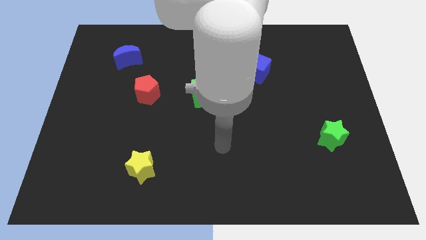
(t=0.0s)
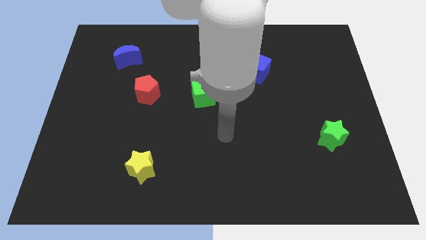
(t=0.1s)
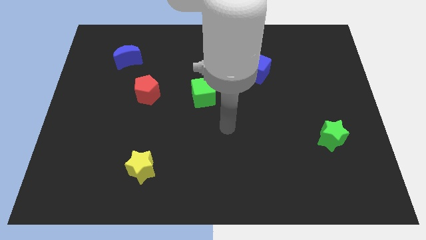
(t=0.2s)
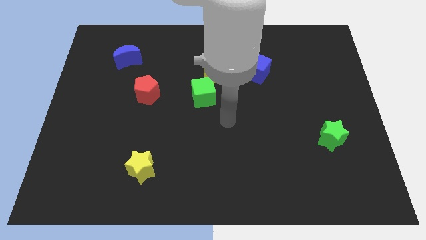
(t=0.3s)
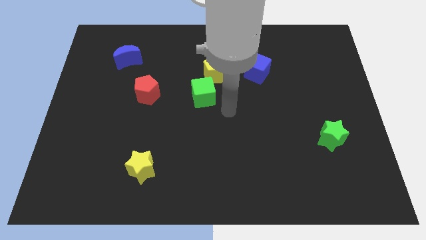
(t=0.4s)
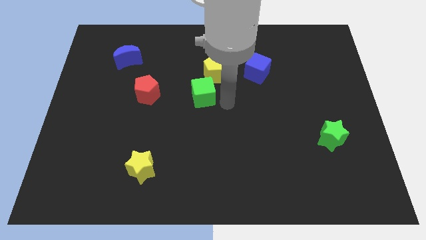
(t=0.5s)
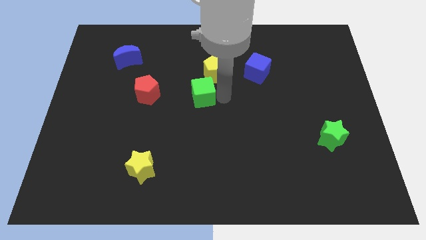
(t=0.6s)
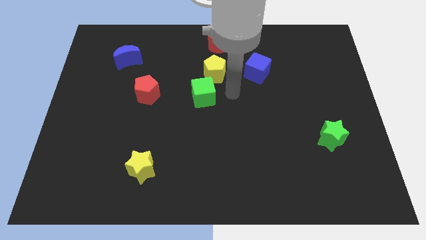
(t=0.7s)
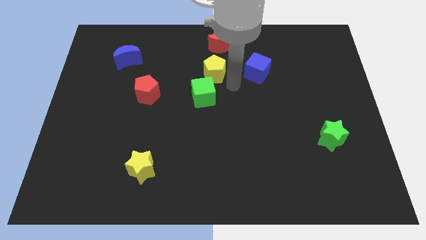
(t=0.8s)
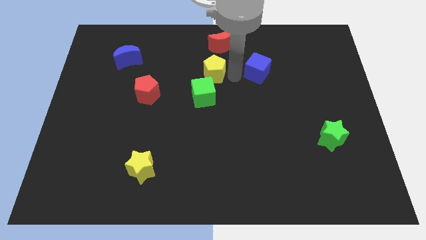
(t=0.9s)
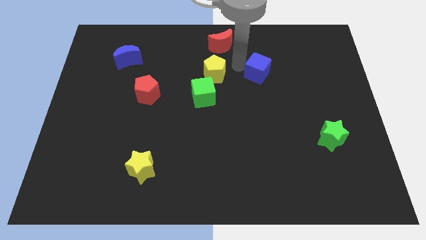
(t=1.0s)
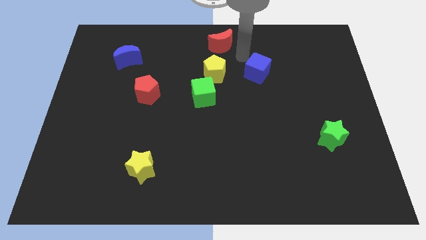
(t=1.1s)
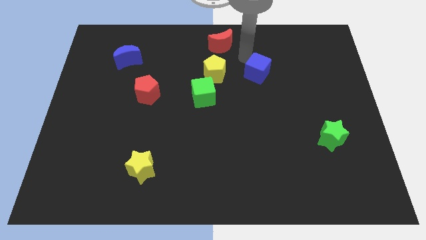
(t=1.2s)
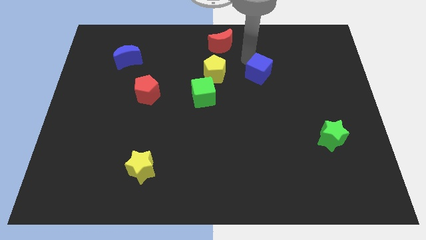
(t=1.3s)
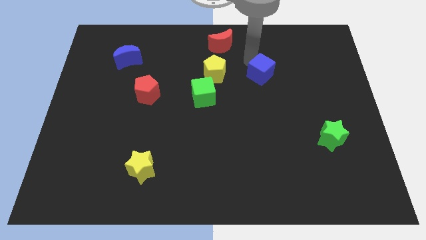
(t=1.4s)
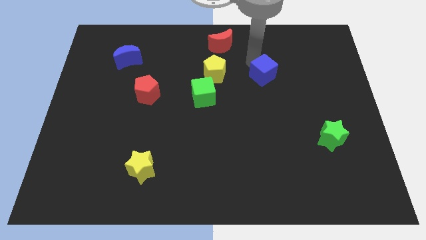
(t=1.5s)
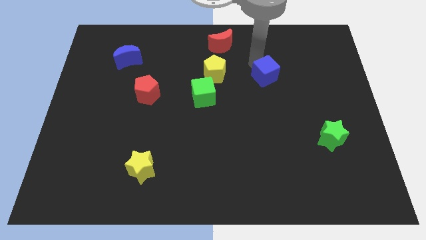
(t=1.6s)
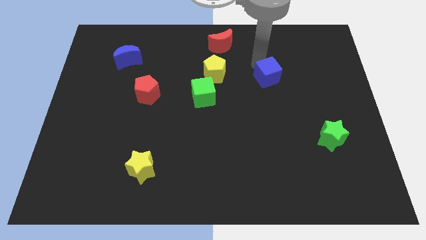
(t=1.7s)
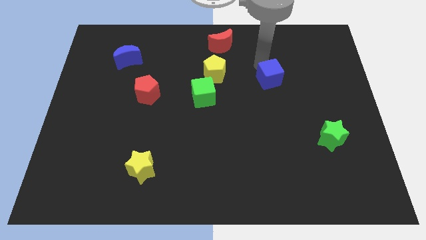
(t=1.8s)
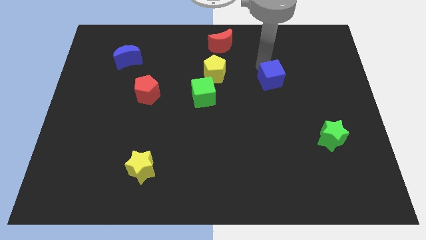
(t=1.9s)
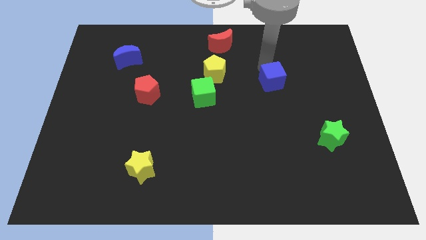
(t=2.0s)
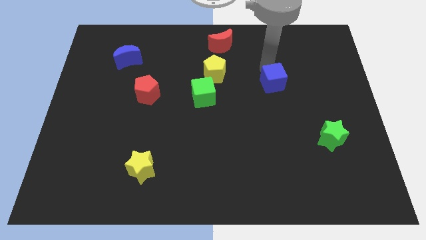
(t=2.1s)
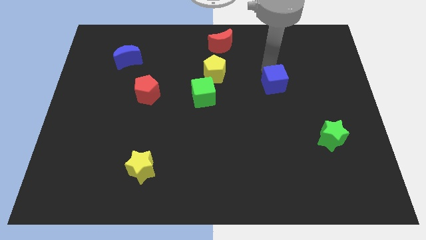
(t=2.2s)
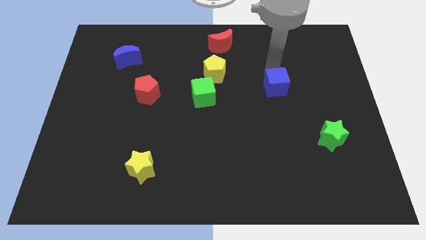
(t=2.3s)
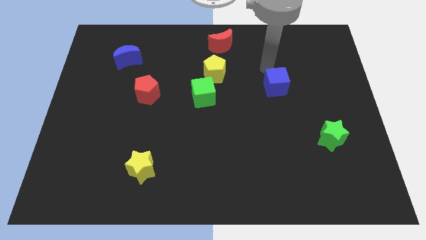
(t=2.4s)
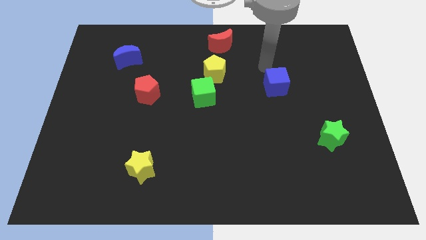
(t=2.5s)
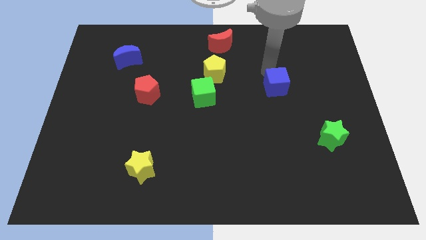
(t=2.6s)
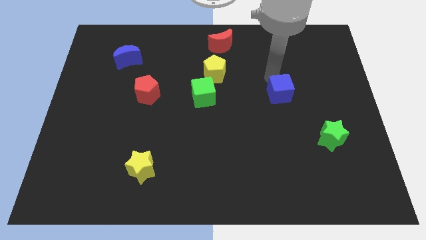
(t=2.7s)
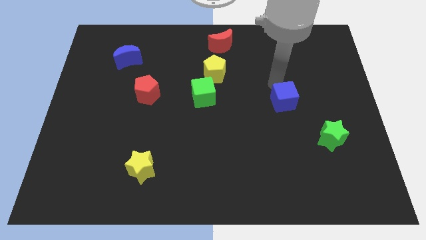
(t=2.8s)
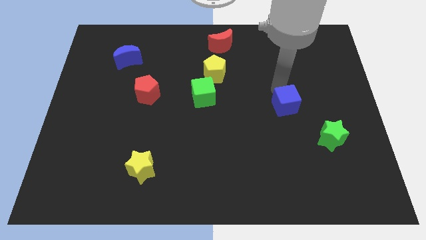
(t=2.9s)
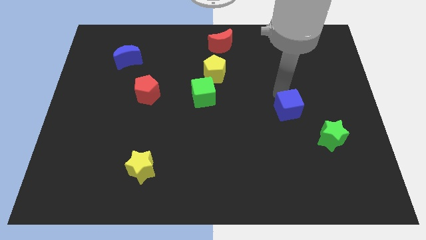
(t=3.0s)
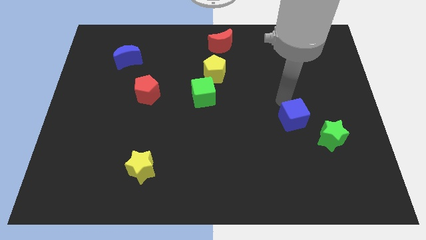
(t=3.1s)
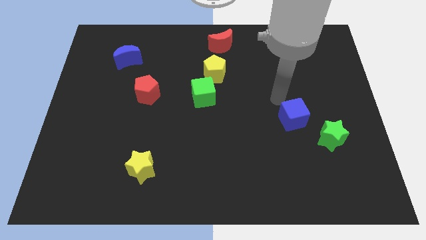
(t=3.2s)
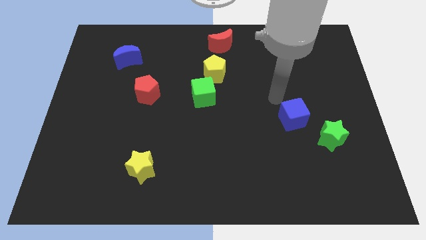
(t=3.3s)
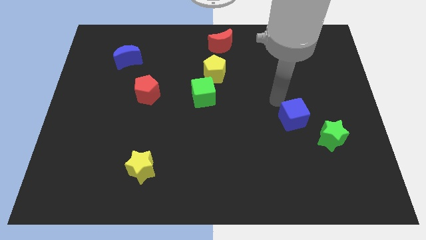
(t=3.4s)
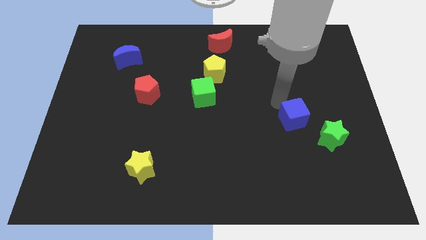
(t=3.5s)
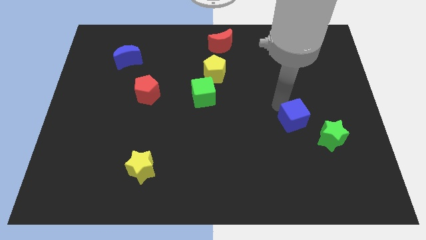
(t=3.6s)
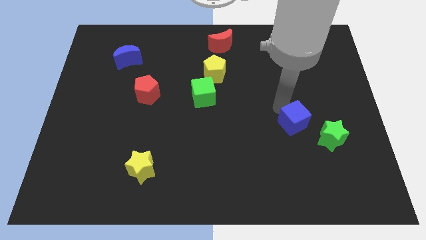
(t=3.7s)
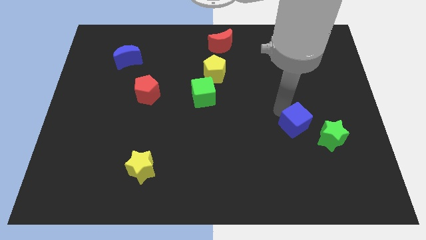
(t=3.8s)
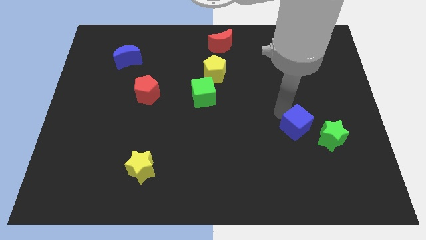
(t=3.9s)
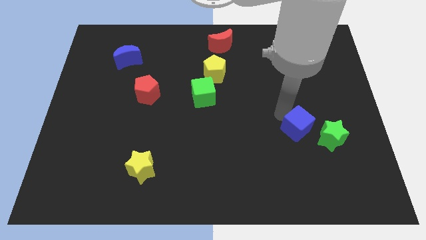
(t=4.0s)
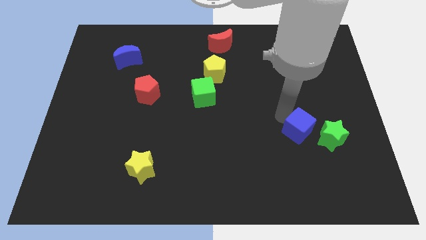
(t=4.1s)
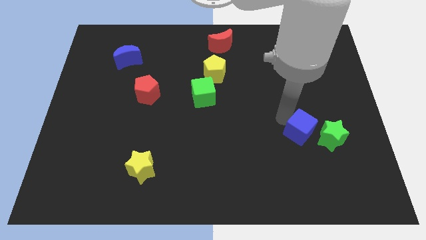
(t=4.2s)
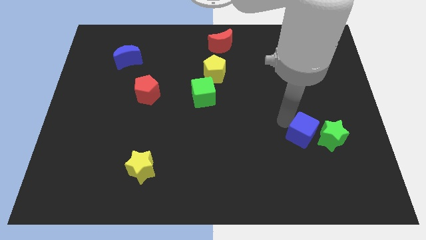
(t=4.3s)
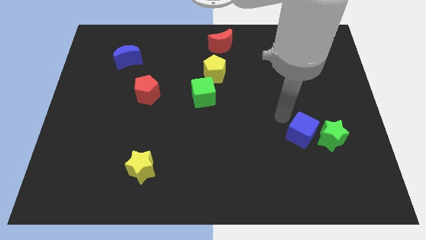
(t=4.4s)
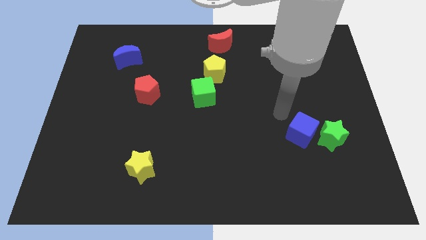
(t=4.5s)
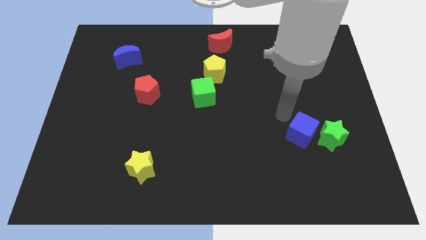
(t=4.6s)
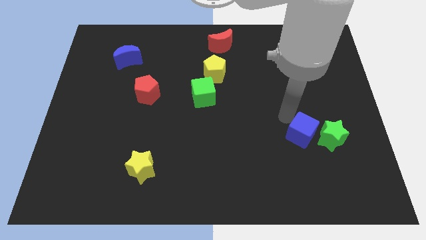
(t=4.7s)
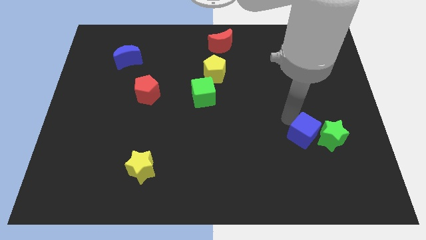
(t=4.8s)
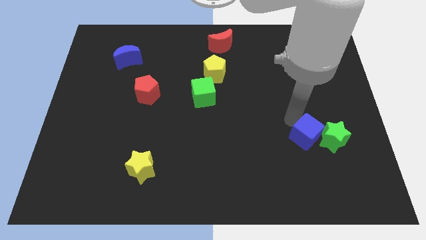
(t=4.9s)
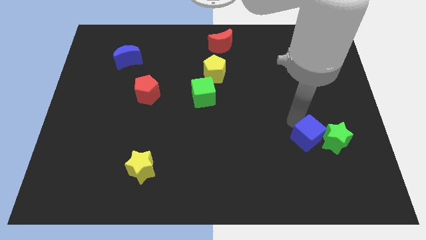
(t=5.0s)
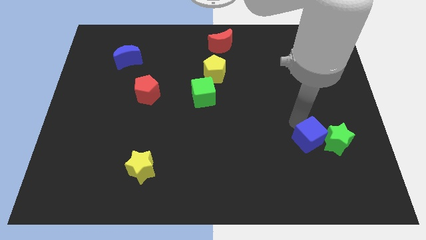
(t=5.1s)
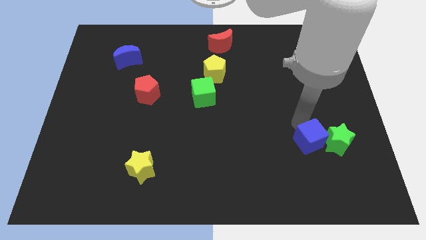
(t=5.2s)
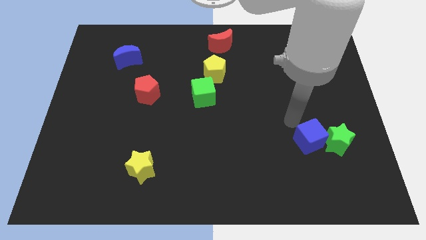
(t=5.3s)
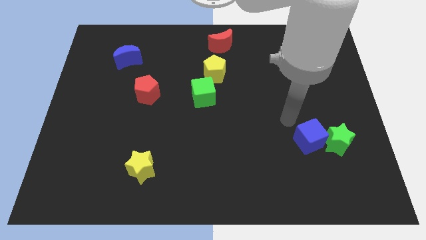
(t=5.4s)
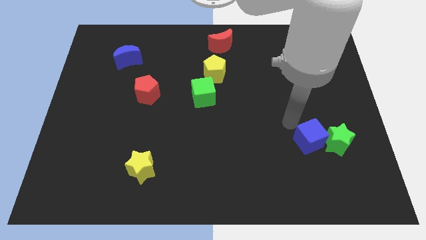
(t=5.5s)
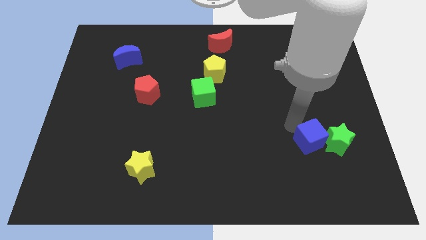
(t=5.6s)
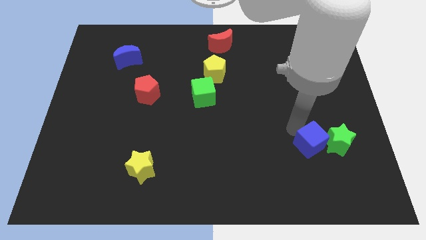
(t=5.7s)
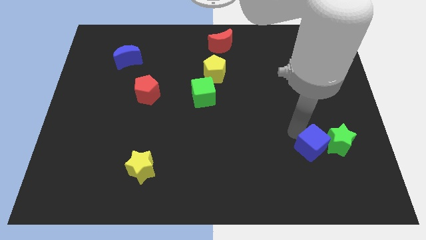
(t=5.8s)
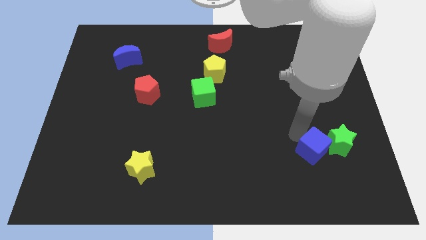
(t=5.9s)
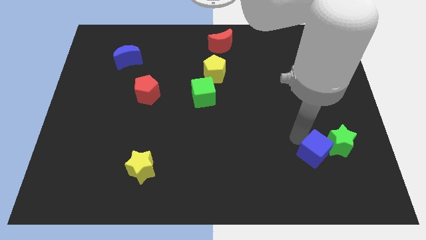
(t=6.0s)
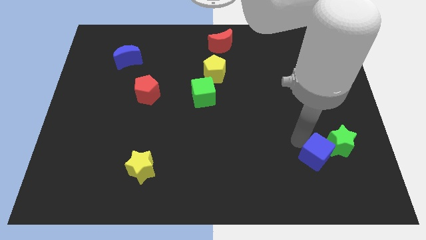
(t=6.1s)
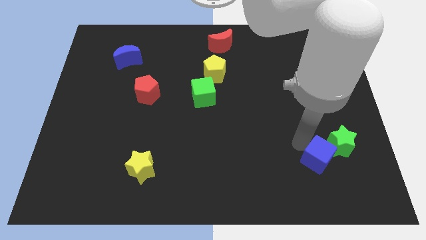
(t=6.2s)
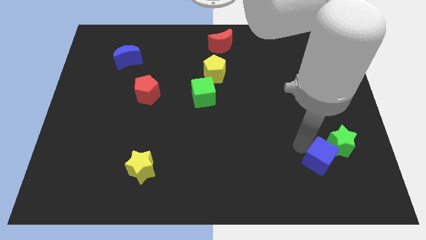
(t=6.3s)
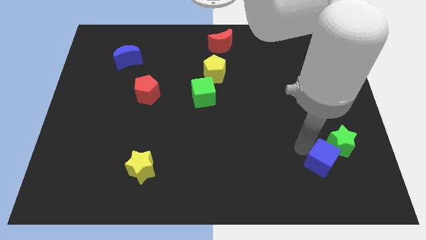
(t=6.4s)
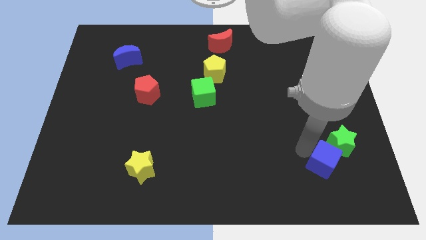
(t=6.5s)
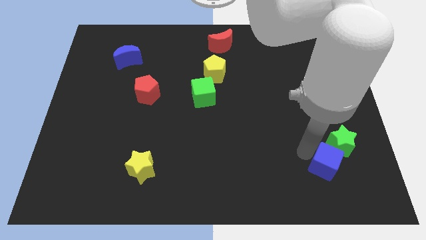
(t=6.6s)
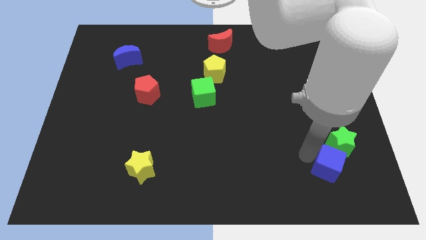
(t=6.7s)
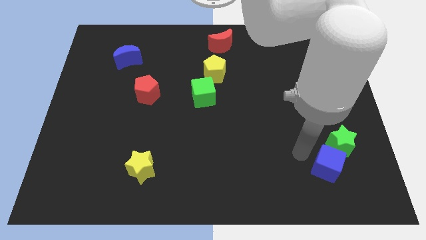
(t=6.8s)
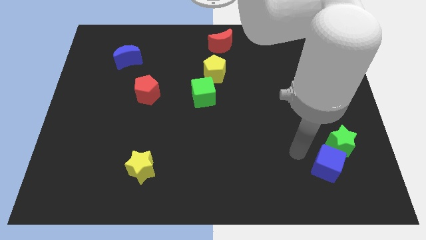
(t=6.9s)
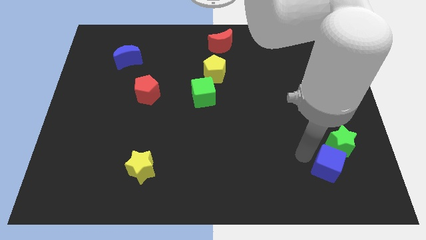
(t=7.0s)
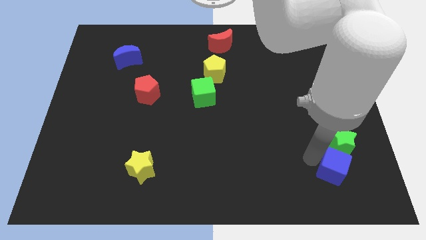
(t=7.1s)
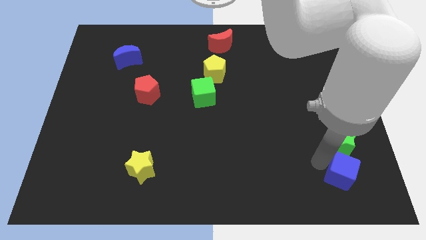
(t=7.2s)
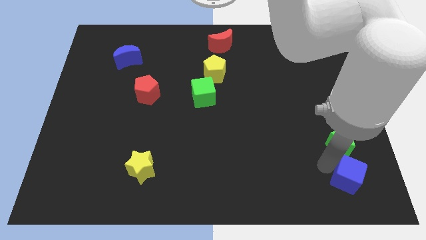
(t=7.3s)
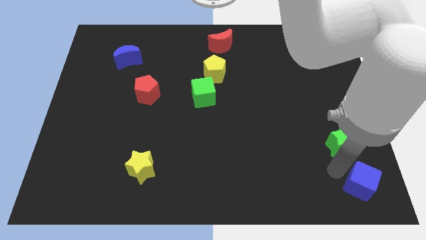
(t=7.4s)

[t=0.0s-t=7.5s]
put the blue cube to the bottom right corner

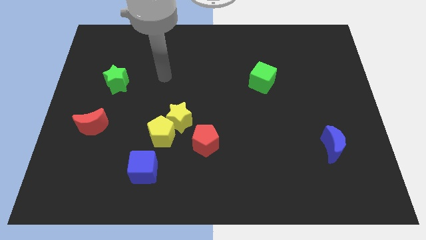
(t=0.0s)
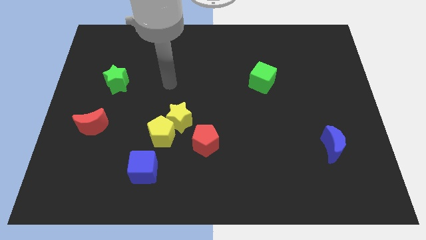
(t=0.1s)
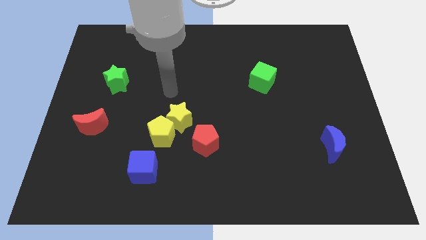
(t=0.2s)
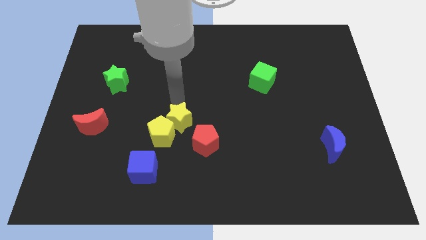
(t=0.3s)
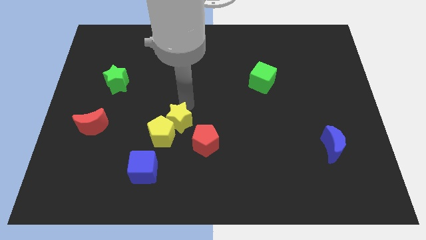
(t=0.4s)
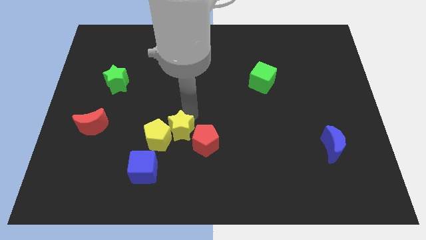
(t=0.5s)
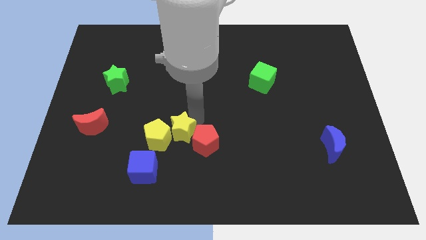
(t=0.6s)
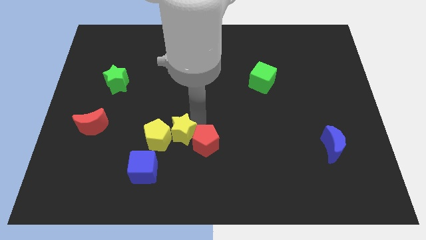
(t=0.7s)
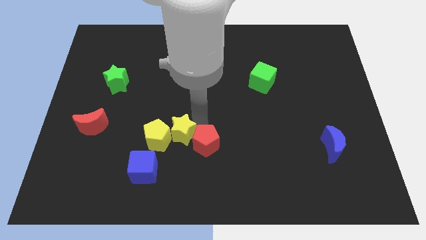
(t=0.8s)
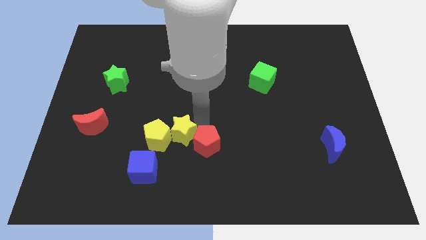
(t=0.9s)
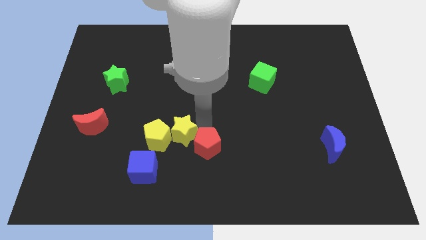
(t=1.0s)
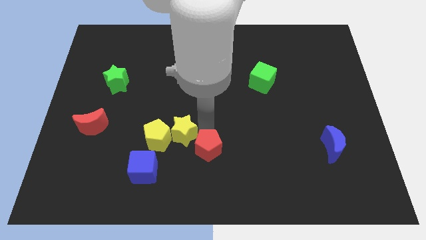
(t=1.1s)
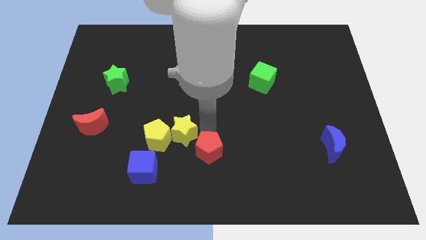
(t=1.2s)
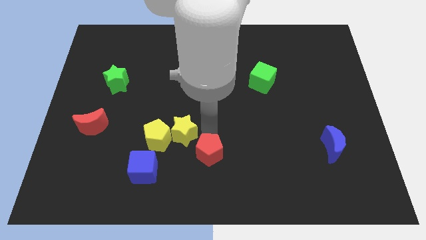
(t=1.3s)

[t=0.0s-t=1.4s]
push the red pentagon to the bottom side
